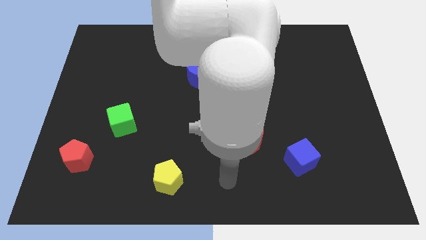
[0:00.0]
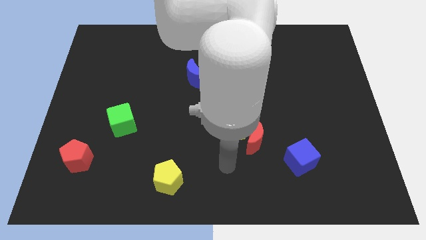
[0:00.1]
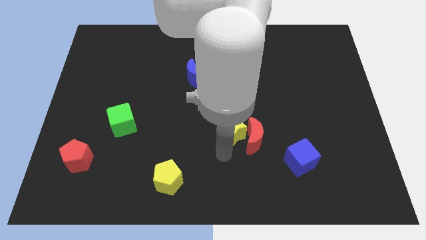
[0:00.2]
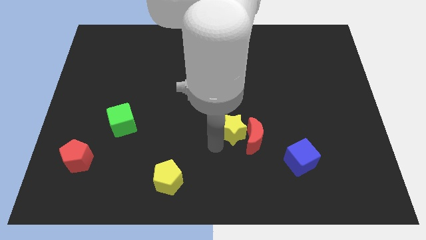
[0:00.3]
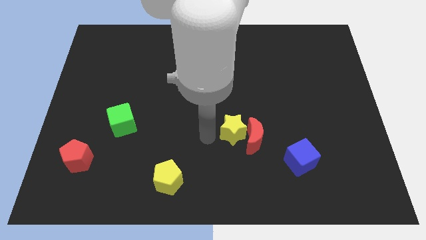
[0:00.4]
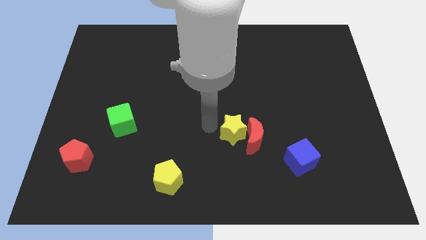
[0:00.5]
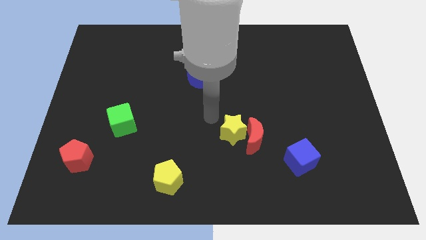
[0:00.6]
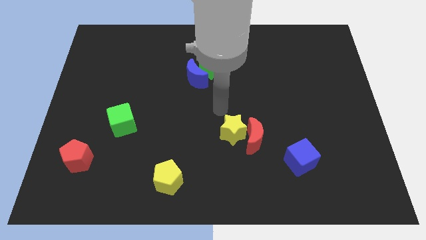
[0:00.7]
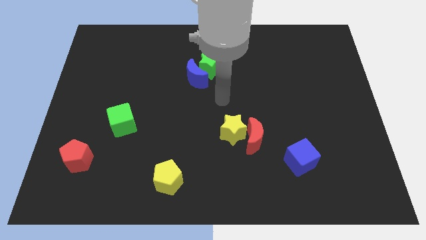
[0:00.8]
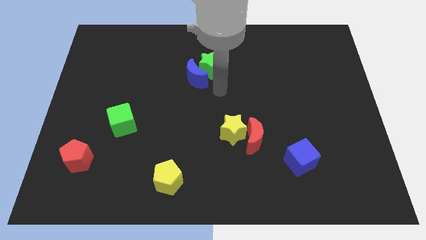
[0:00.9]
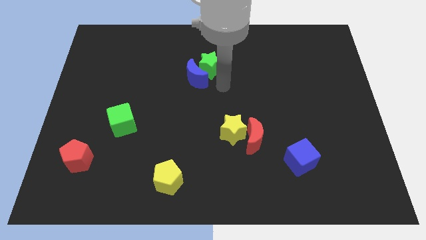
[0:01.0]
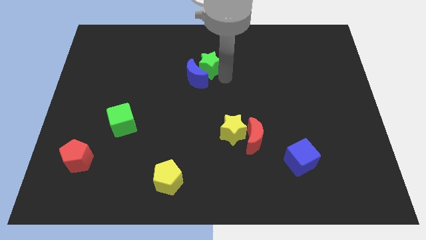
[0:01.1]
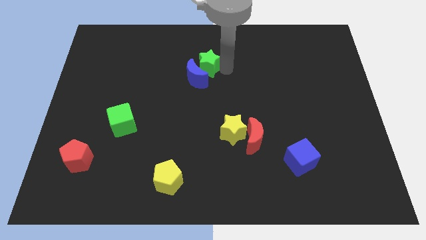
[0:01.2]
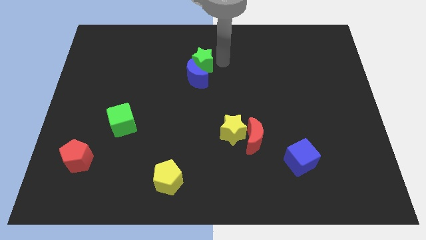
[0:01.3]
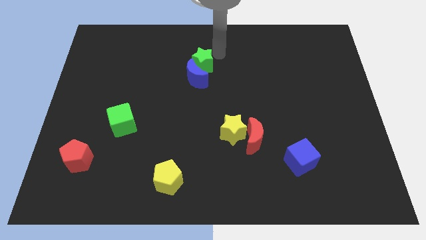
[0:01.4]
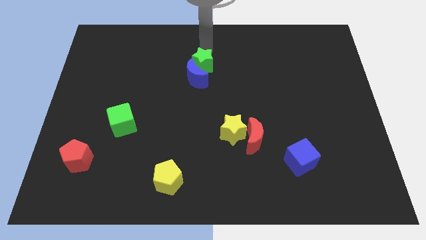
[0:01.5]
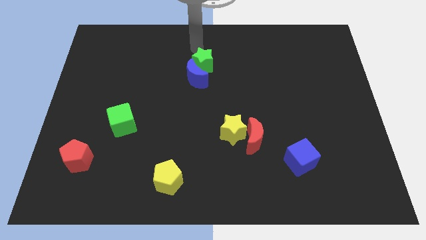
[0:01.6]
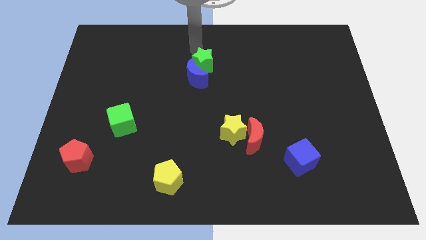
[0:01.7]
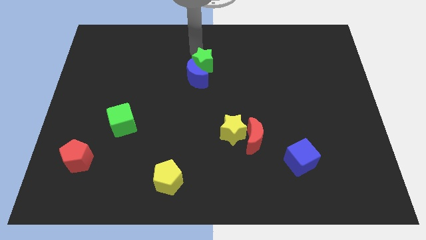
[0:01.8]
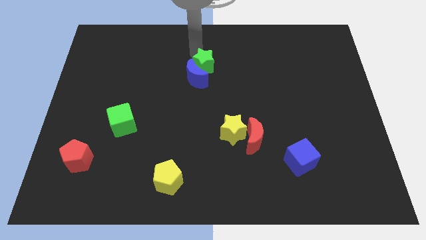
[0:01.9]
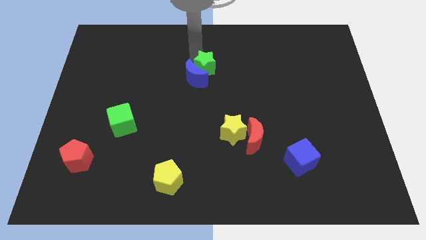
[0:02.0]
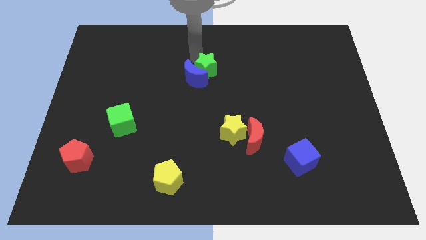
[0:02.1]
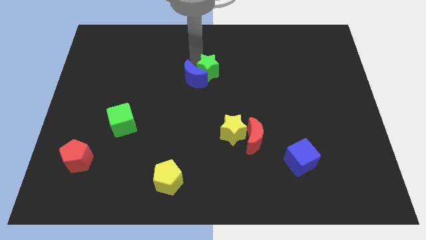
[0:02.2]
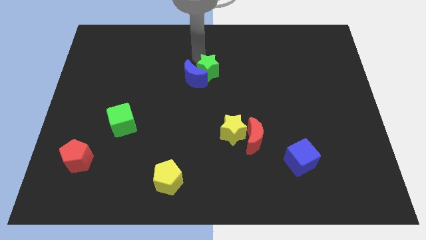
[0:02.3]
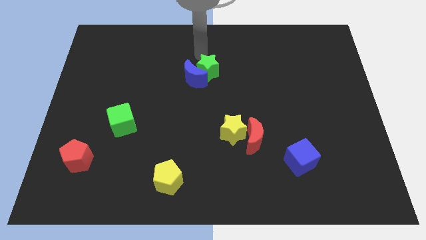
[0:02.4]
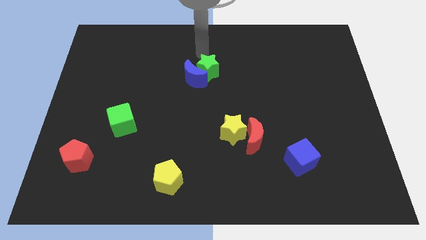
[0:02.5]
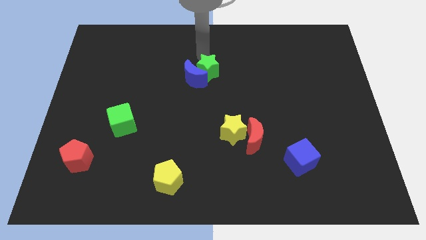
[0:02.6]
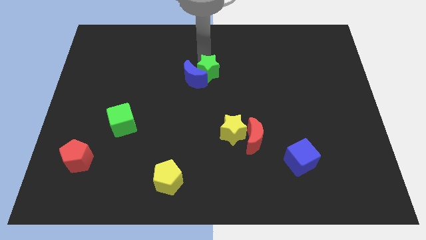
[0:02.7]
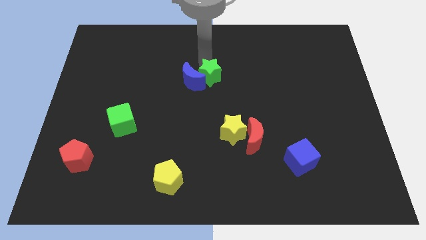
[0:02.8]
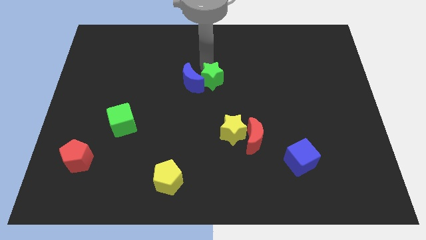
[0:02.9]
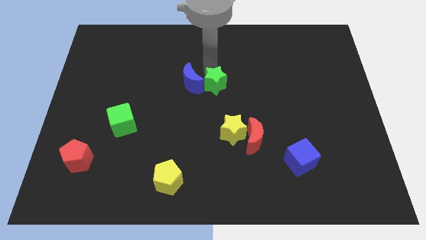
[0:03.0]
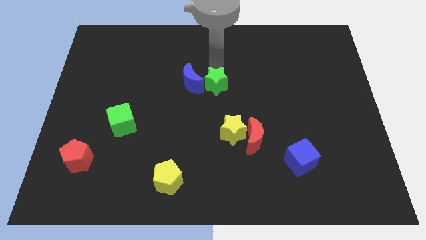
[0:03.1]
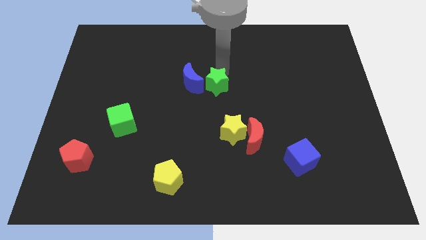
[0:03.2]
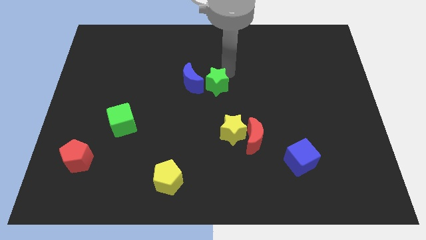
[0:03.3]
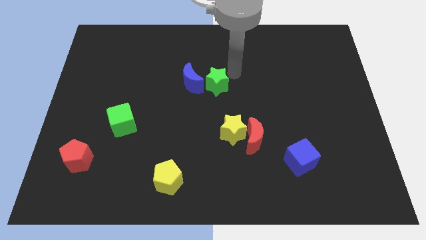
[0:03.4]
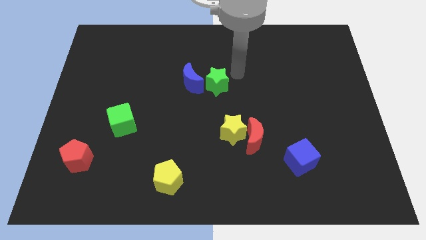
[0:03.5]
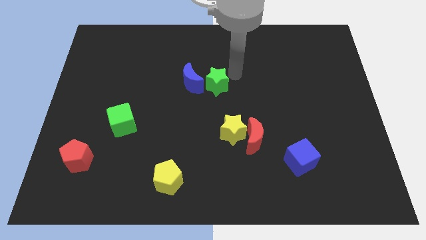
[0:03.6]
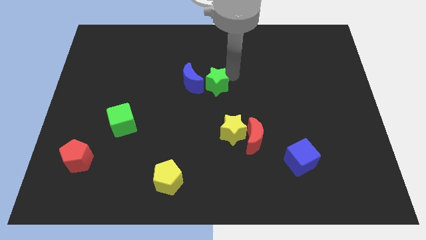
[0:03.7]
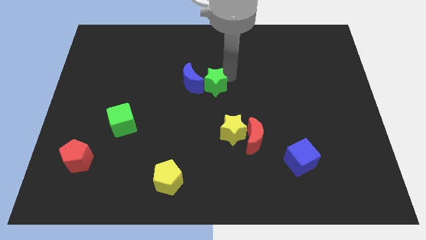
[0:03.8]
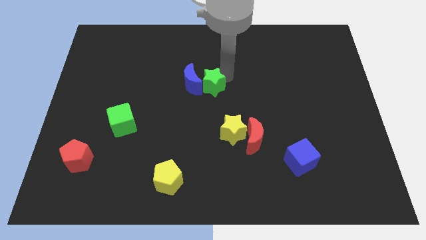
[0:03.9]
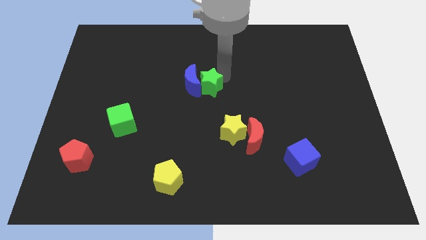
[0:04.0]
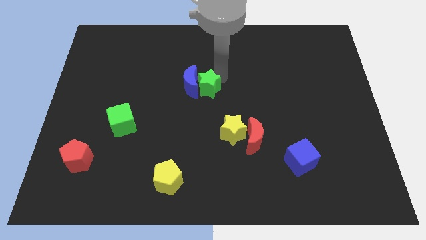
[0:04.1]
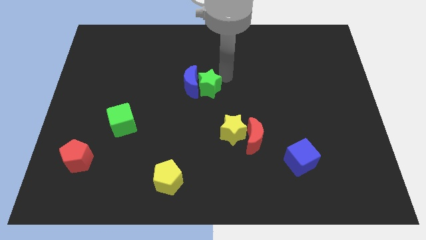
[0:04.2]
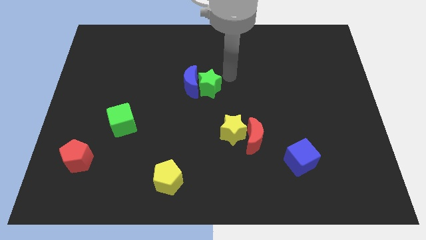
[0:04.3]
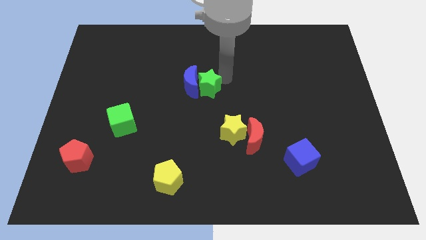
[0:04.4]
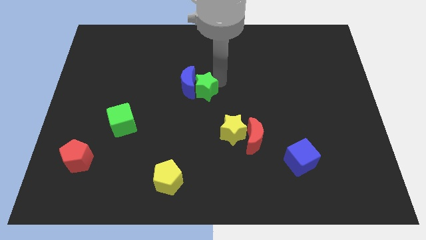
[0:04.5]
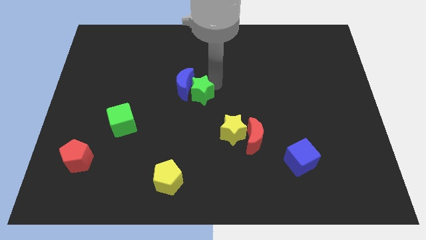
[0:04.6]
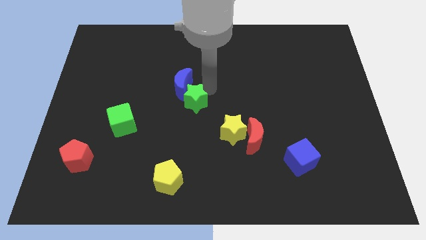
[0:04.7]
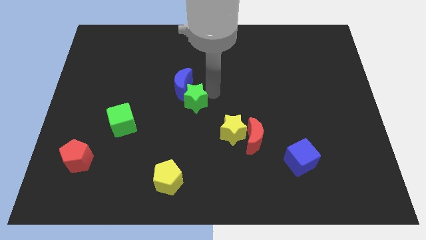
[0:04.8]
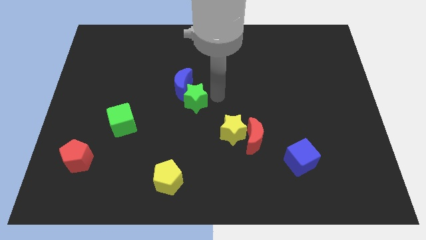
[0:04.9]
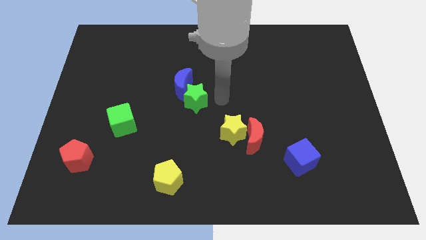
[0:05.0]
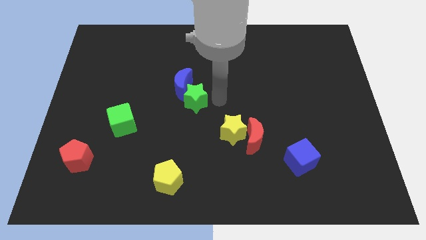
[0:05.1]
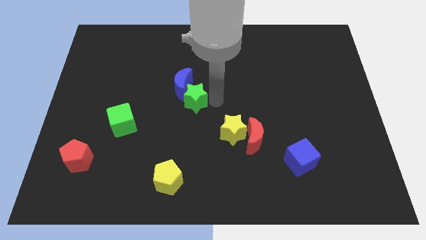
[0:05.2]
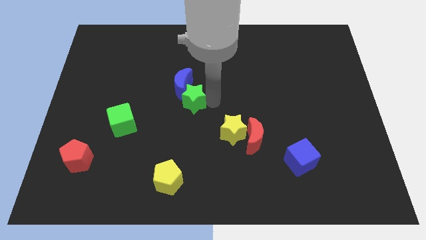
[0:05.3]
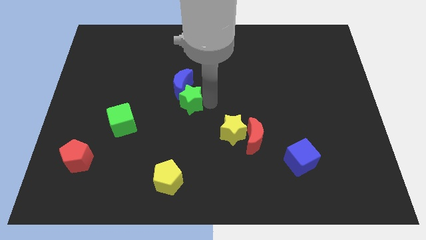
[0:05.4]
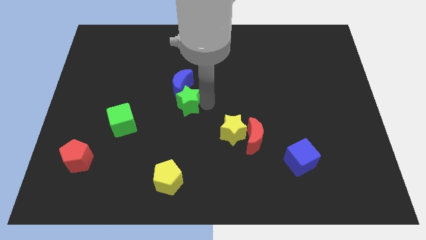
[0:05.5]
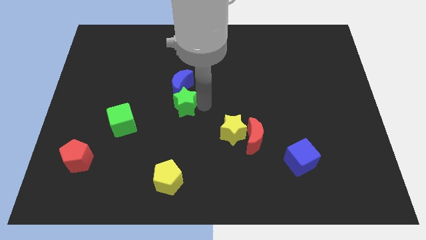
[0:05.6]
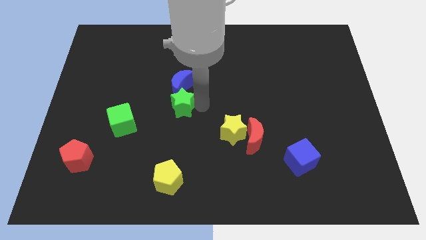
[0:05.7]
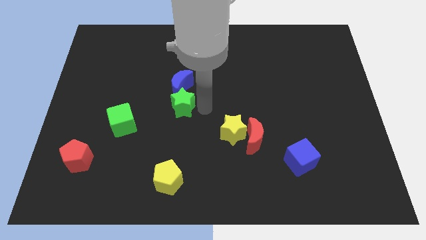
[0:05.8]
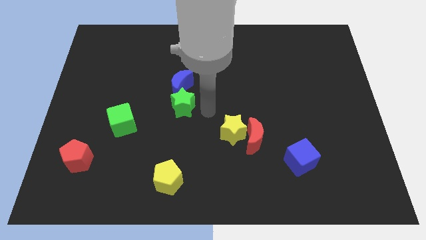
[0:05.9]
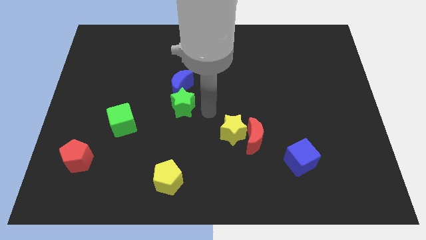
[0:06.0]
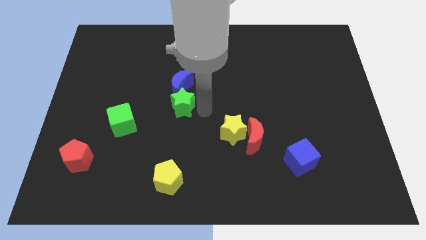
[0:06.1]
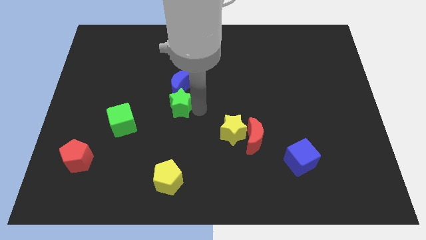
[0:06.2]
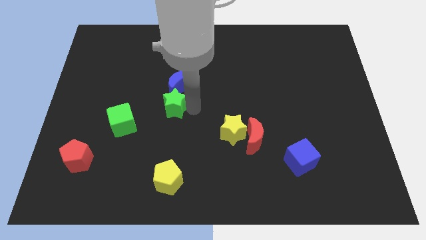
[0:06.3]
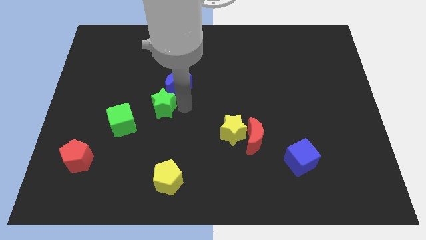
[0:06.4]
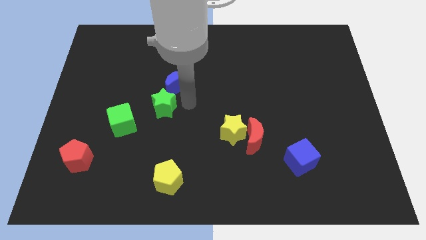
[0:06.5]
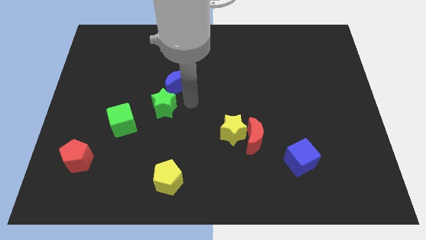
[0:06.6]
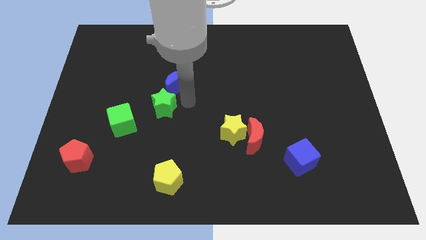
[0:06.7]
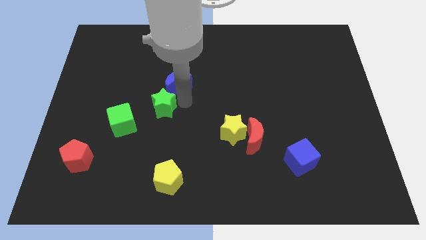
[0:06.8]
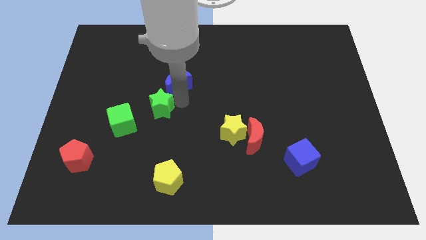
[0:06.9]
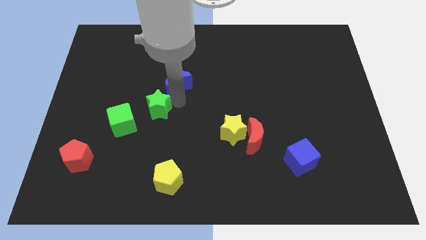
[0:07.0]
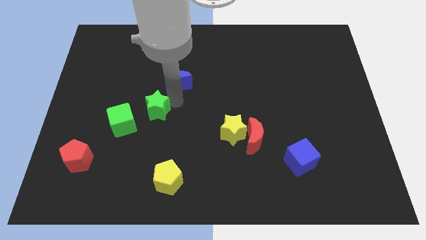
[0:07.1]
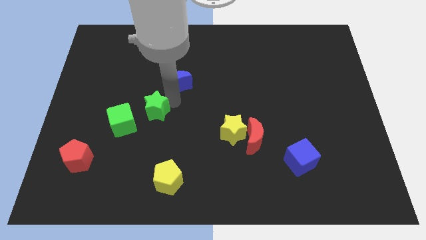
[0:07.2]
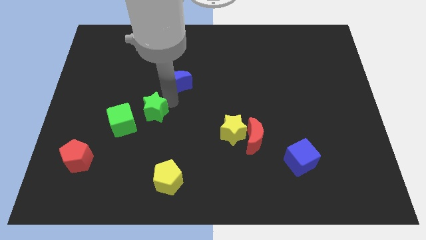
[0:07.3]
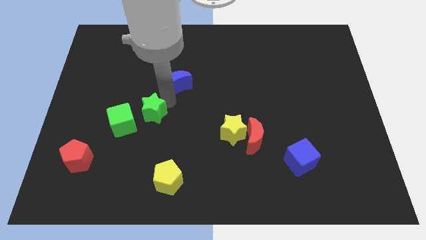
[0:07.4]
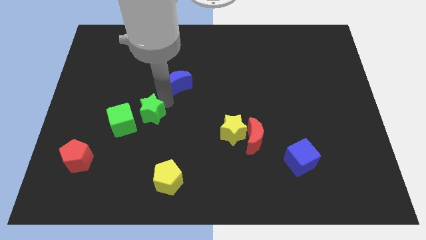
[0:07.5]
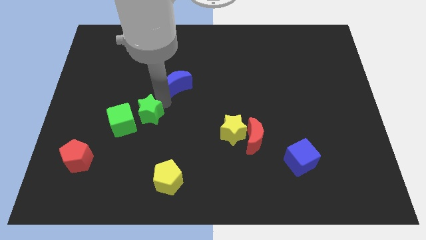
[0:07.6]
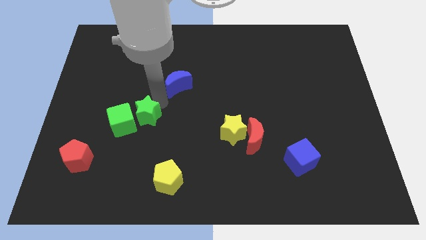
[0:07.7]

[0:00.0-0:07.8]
put the green star towards the green cube

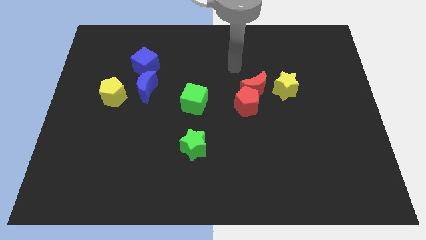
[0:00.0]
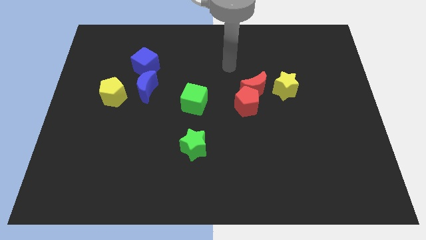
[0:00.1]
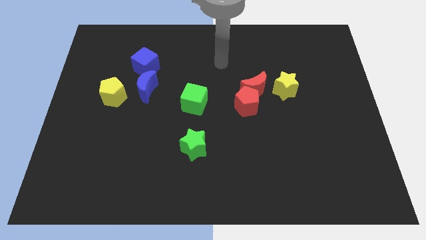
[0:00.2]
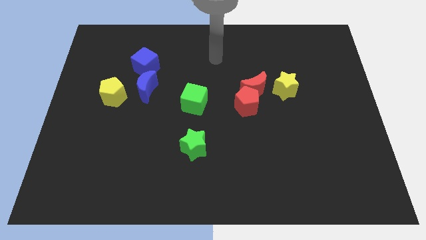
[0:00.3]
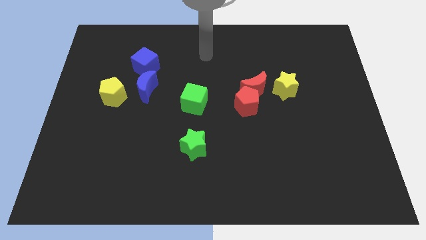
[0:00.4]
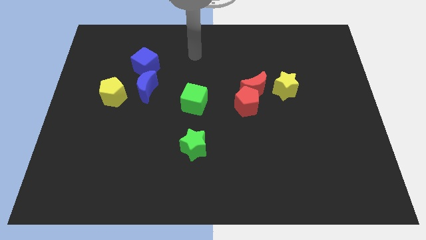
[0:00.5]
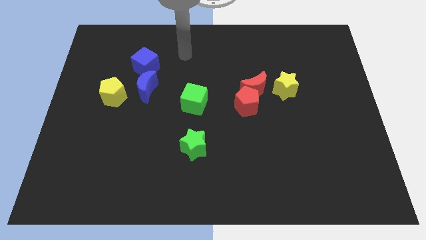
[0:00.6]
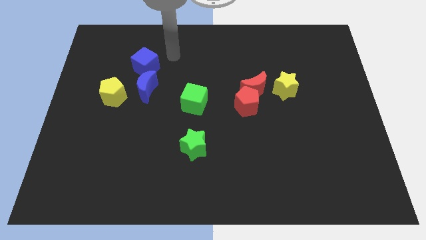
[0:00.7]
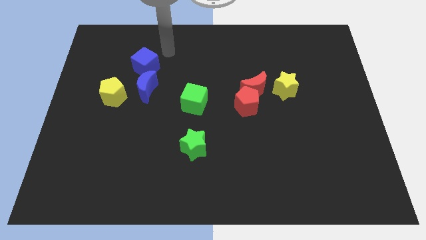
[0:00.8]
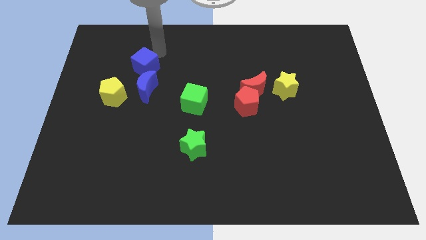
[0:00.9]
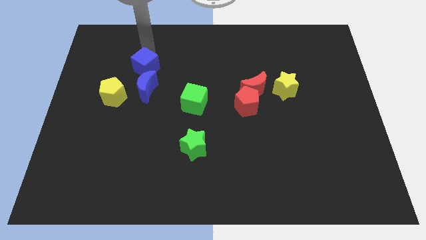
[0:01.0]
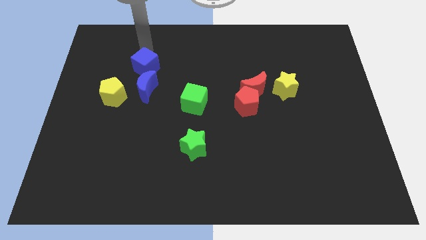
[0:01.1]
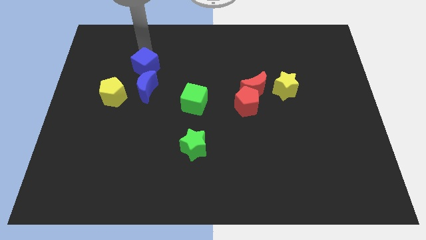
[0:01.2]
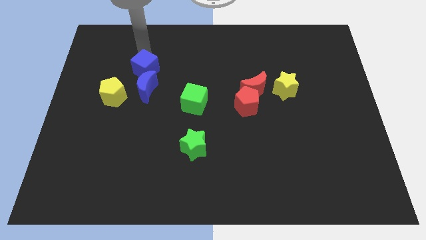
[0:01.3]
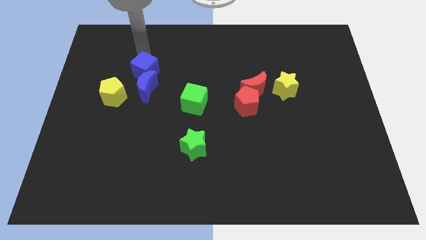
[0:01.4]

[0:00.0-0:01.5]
slide the blue cube towards the blue moon
